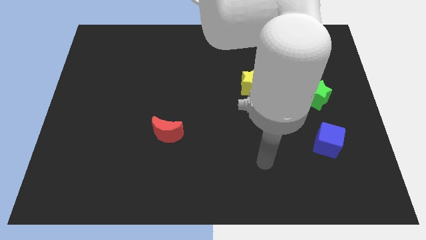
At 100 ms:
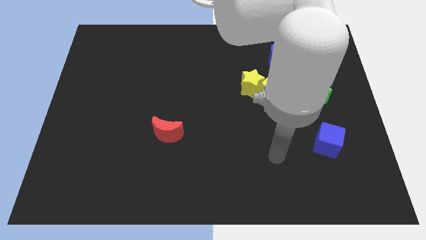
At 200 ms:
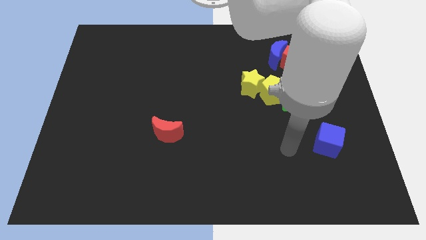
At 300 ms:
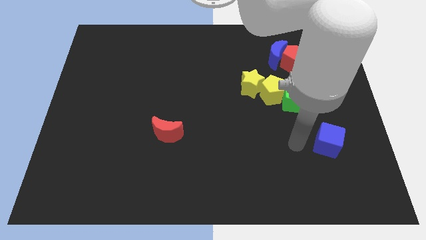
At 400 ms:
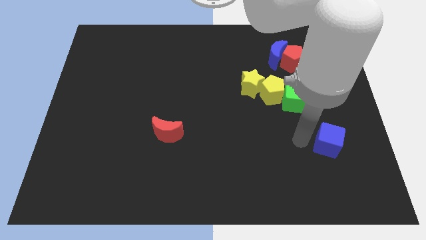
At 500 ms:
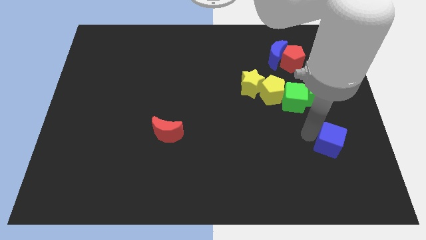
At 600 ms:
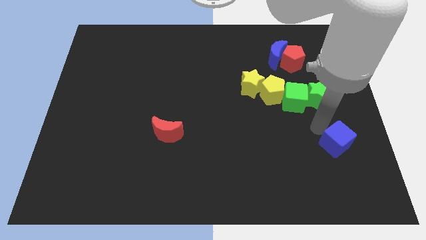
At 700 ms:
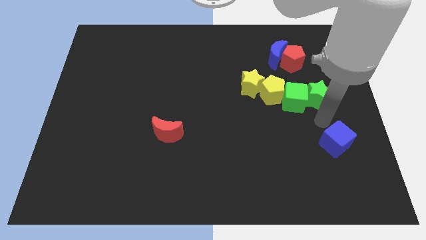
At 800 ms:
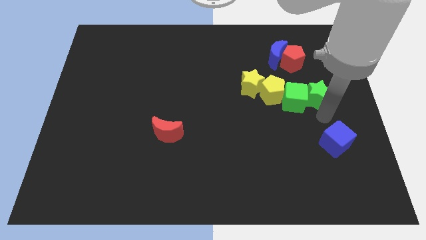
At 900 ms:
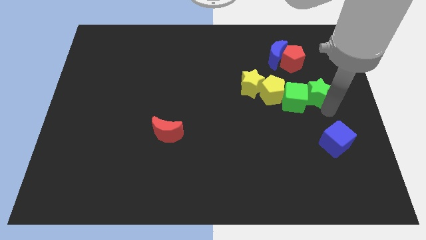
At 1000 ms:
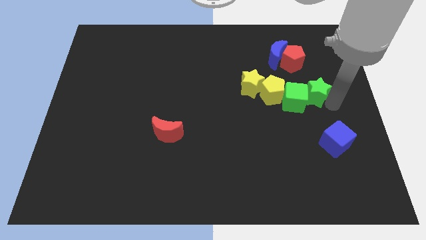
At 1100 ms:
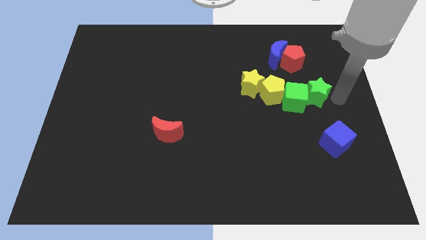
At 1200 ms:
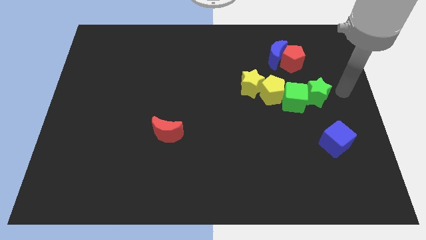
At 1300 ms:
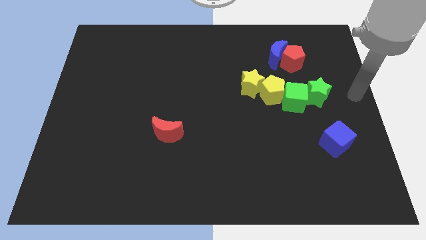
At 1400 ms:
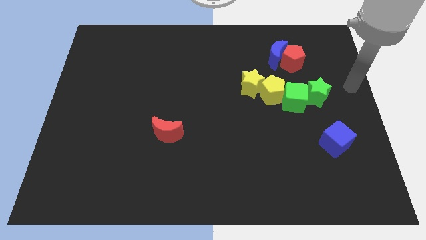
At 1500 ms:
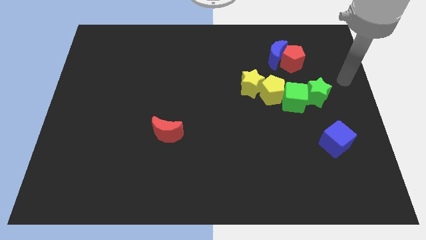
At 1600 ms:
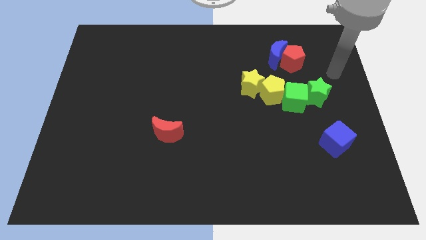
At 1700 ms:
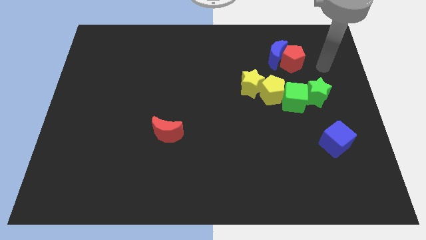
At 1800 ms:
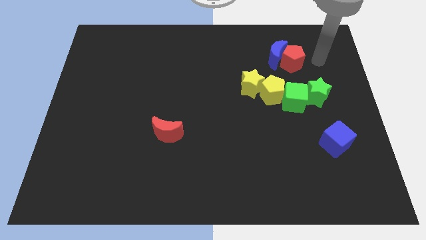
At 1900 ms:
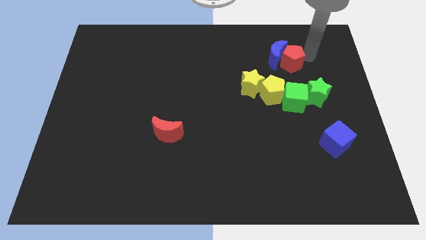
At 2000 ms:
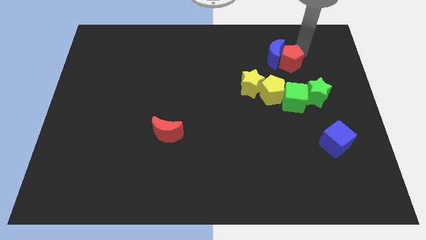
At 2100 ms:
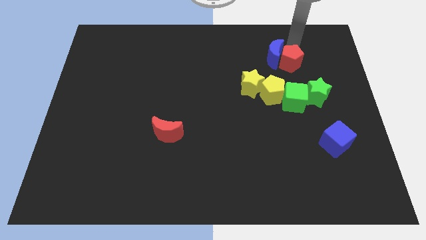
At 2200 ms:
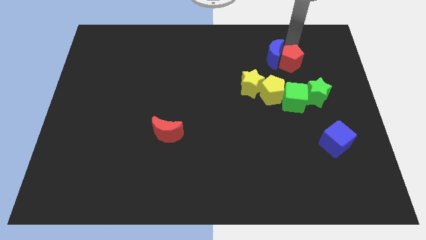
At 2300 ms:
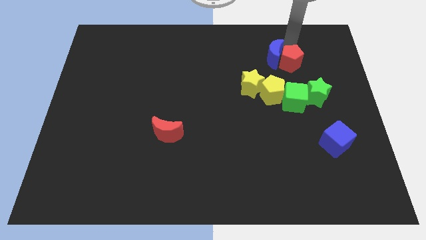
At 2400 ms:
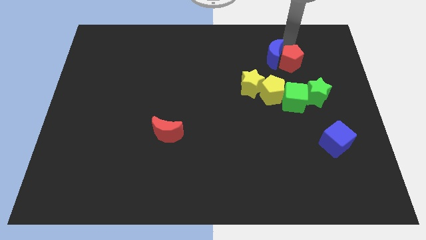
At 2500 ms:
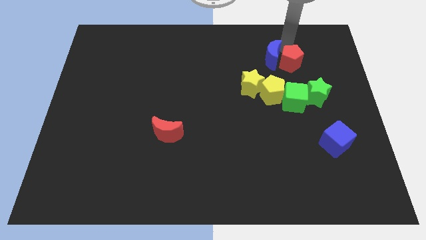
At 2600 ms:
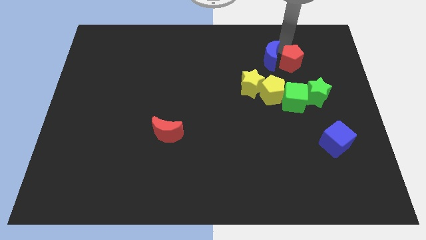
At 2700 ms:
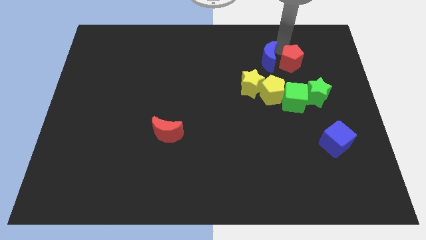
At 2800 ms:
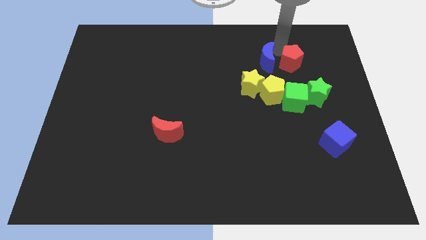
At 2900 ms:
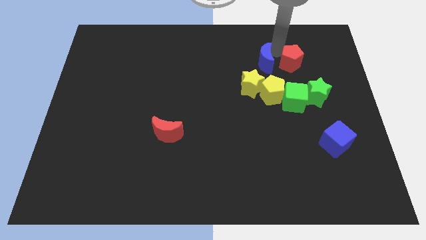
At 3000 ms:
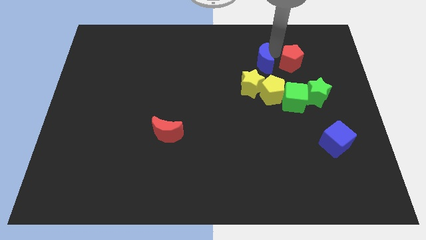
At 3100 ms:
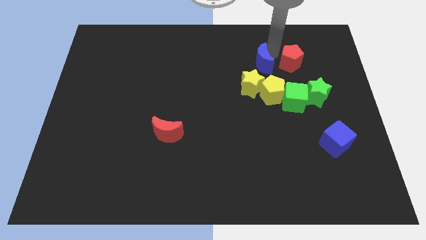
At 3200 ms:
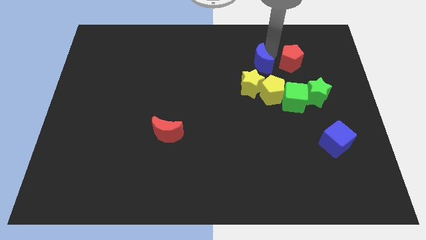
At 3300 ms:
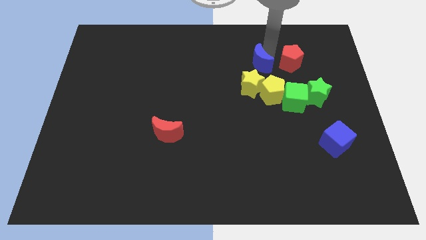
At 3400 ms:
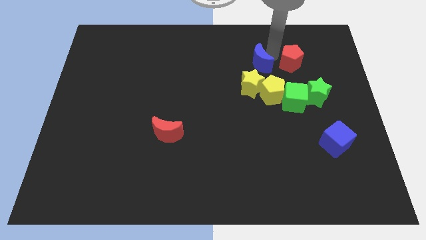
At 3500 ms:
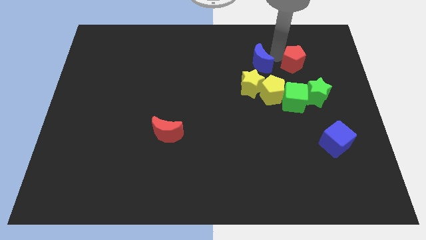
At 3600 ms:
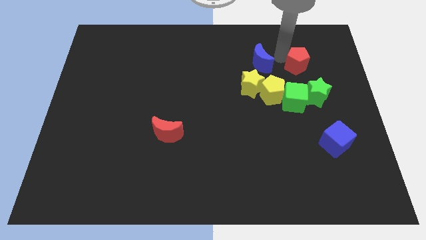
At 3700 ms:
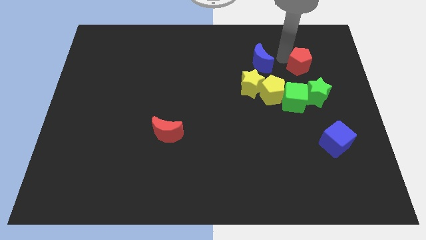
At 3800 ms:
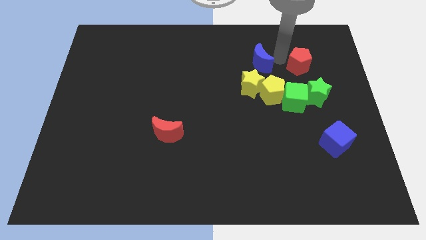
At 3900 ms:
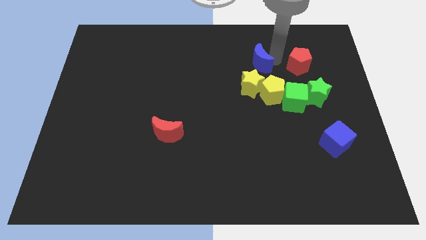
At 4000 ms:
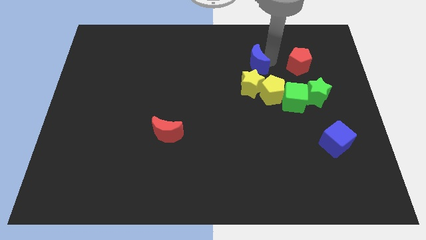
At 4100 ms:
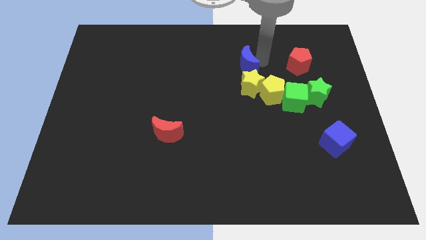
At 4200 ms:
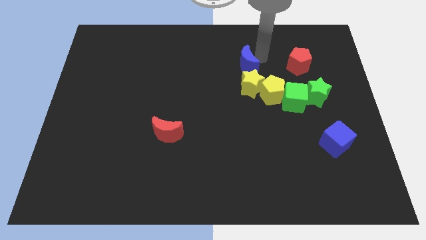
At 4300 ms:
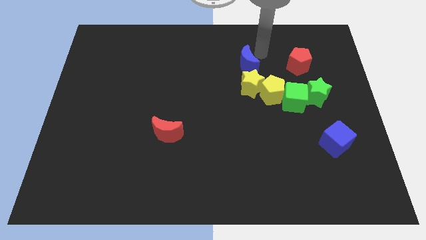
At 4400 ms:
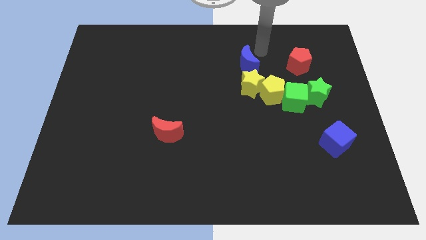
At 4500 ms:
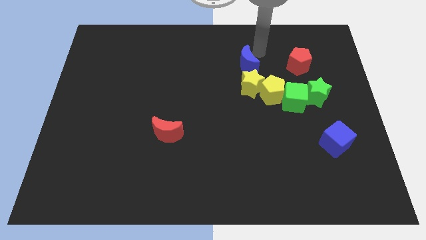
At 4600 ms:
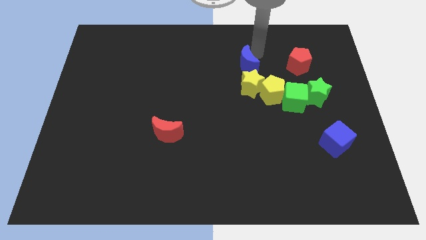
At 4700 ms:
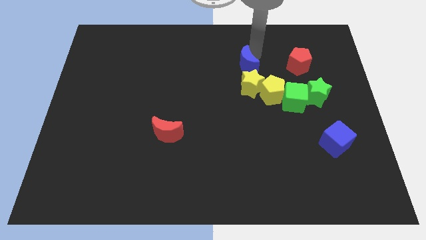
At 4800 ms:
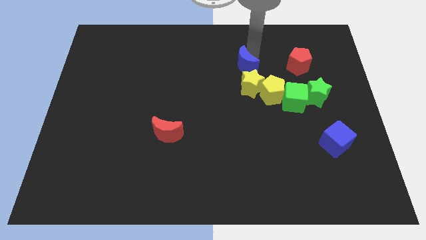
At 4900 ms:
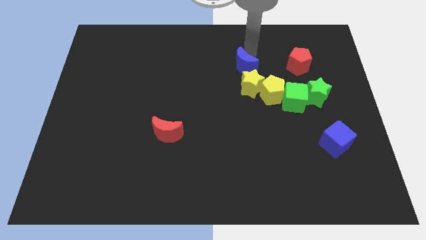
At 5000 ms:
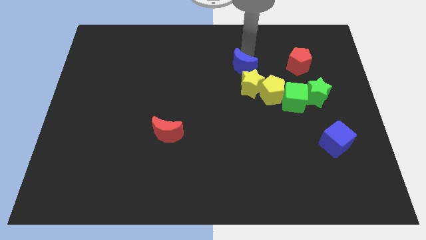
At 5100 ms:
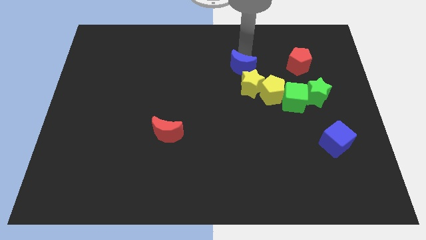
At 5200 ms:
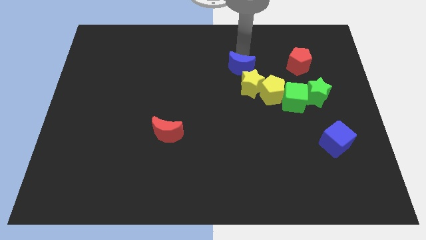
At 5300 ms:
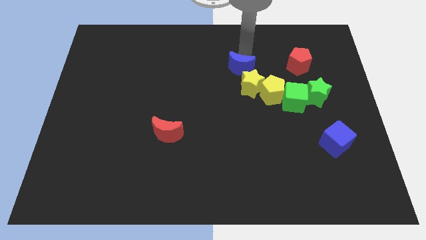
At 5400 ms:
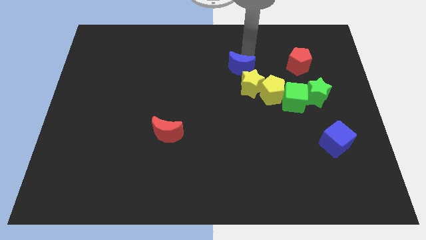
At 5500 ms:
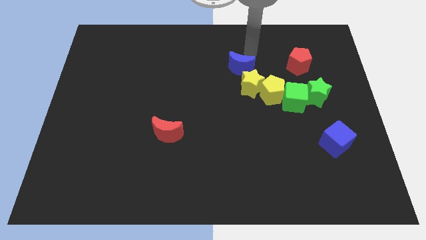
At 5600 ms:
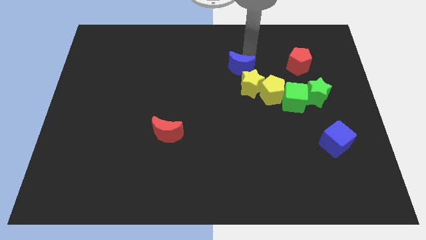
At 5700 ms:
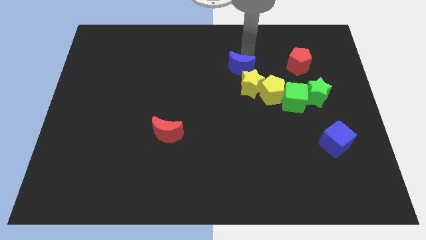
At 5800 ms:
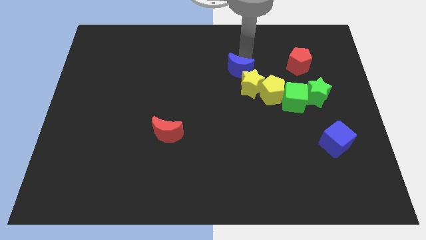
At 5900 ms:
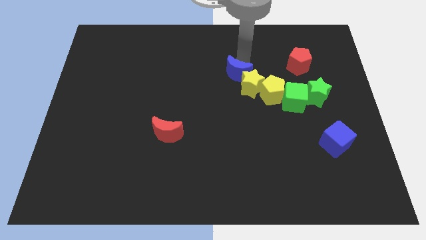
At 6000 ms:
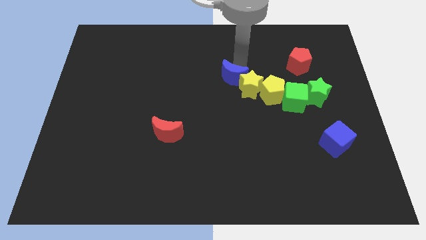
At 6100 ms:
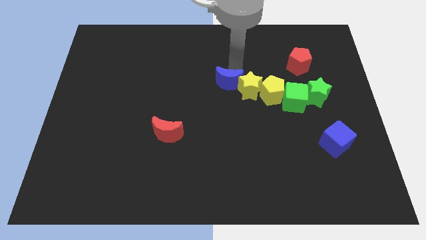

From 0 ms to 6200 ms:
slide the blue moon left of the yellow pentagon

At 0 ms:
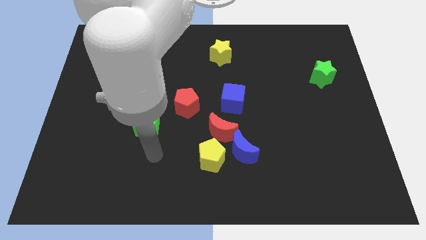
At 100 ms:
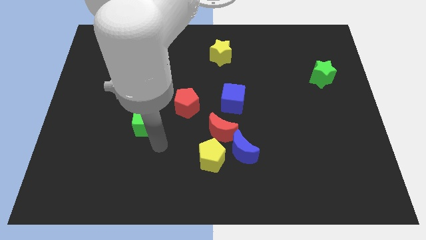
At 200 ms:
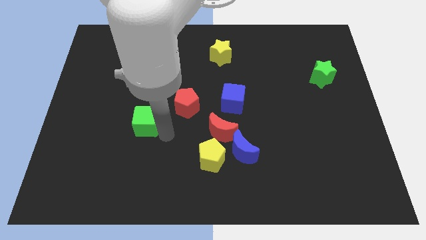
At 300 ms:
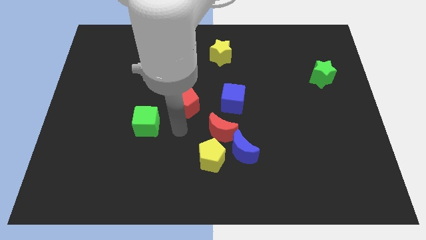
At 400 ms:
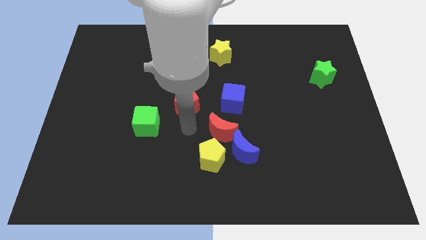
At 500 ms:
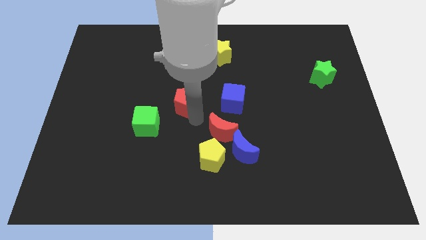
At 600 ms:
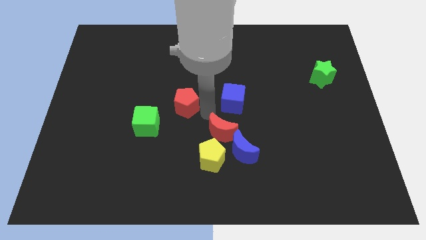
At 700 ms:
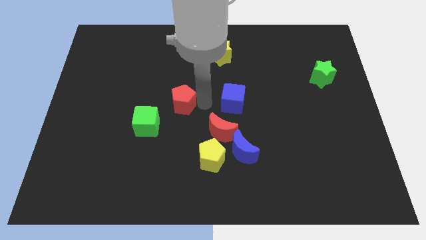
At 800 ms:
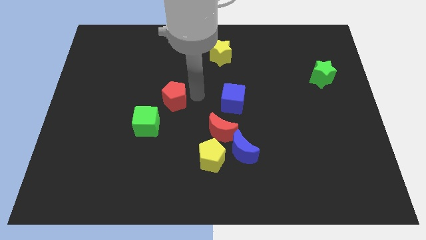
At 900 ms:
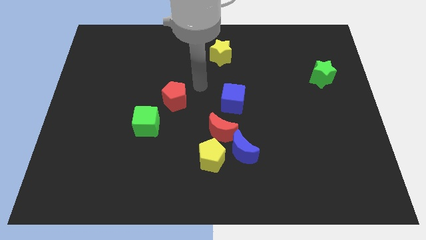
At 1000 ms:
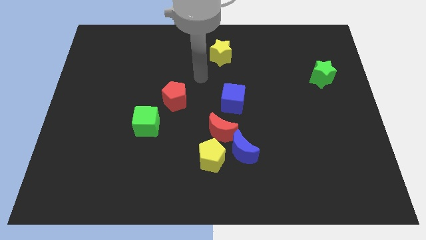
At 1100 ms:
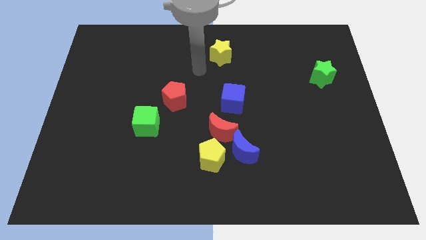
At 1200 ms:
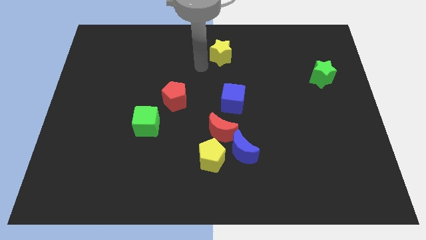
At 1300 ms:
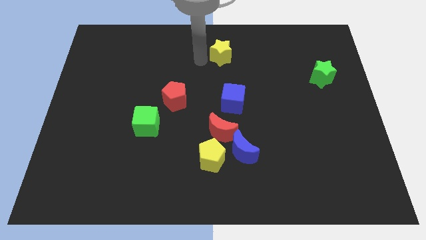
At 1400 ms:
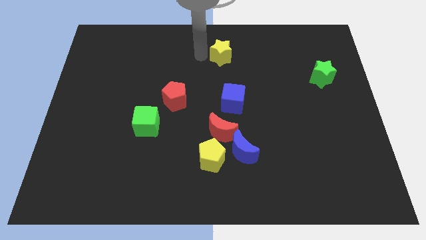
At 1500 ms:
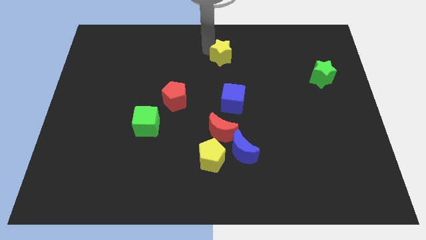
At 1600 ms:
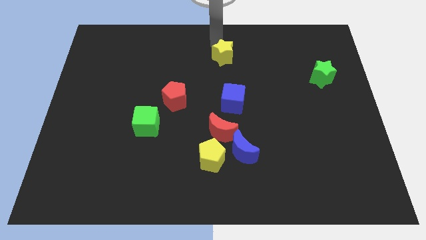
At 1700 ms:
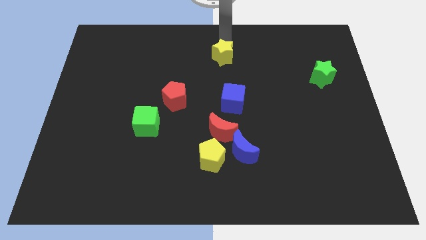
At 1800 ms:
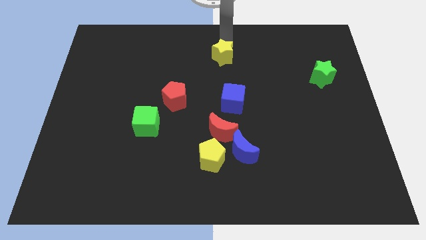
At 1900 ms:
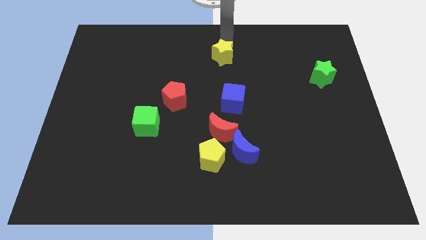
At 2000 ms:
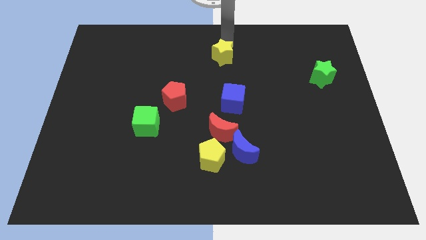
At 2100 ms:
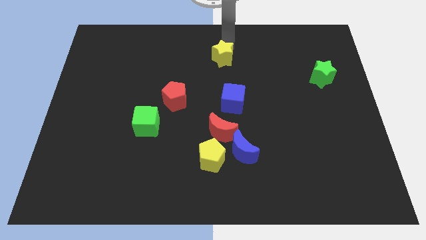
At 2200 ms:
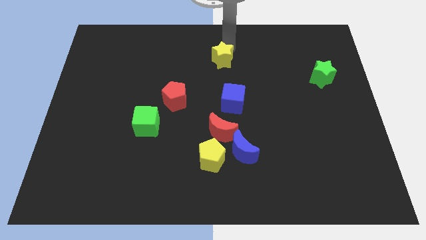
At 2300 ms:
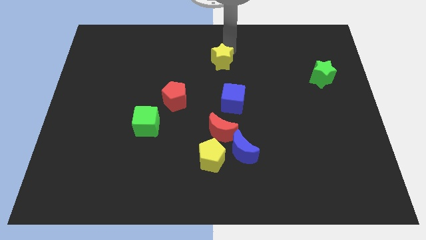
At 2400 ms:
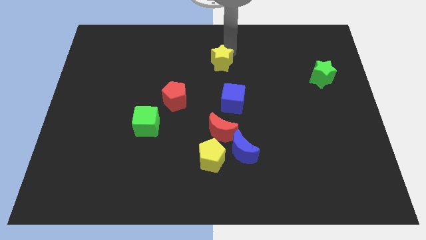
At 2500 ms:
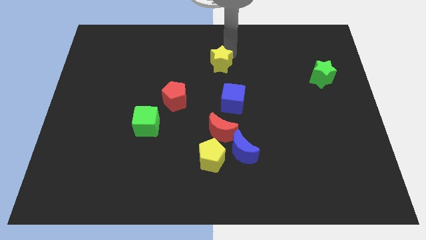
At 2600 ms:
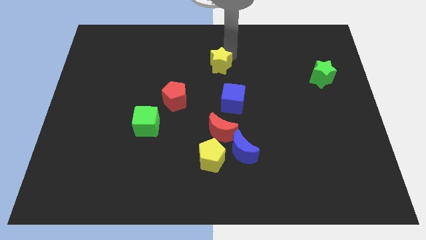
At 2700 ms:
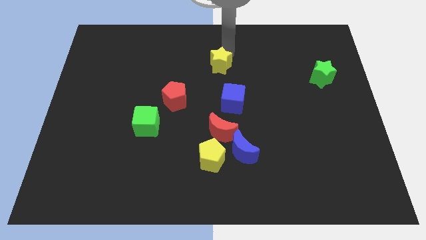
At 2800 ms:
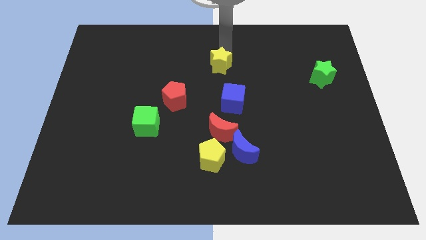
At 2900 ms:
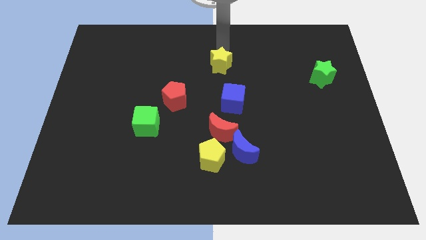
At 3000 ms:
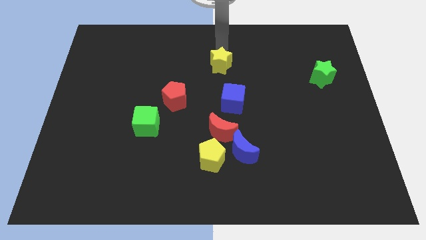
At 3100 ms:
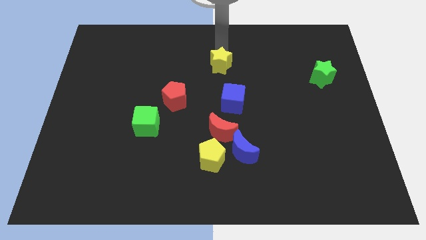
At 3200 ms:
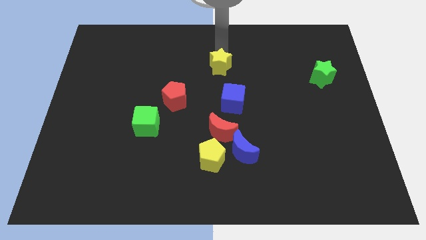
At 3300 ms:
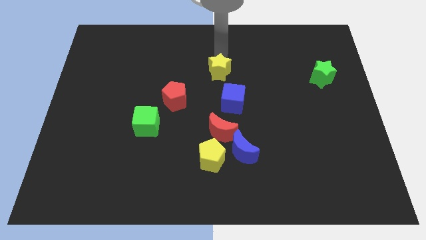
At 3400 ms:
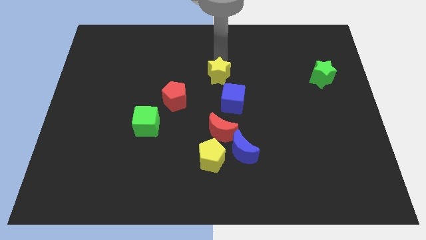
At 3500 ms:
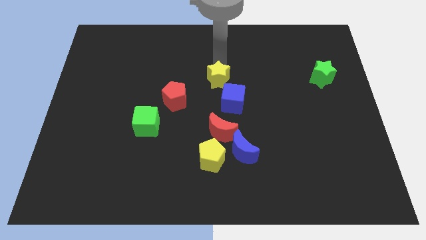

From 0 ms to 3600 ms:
move the yellow star to the top of the red moon
